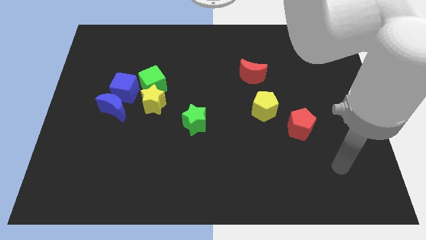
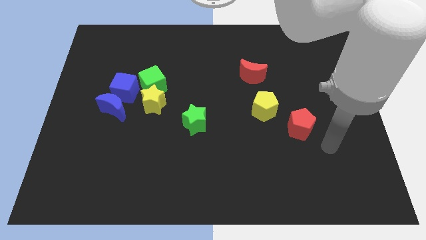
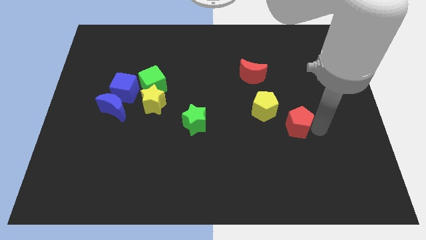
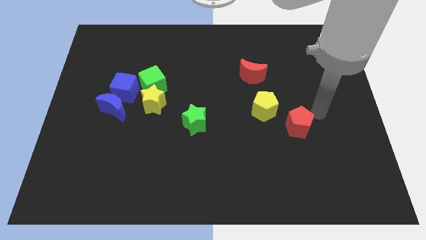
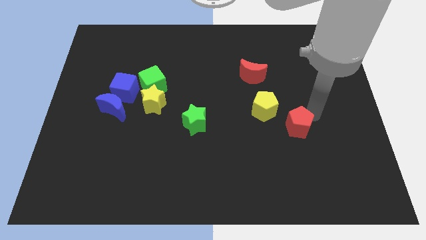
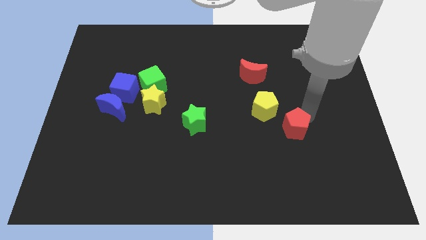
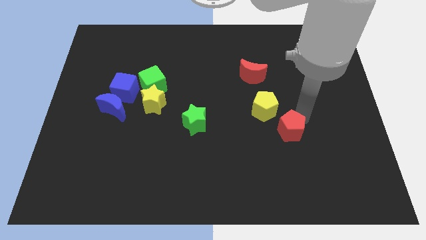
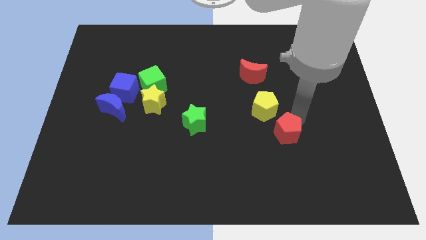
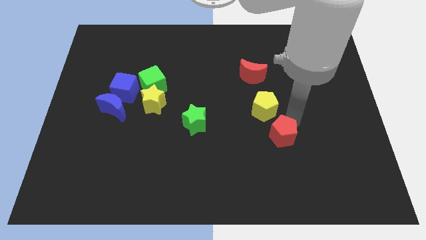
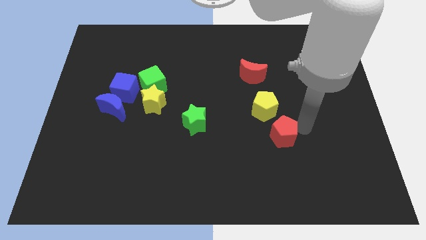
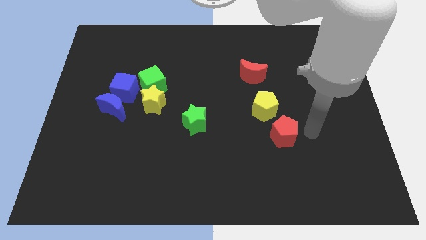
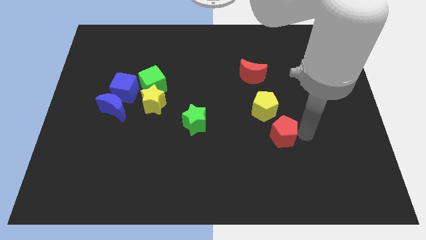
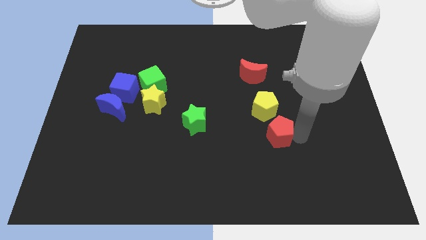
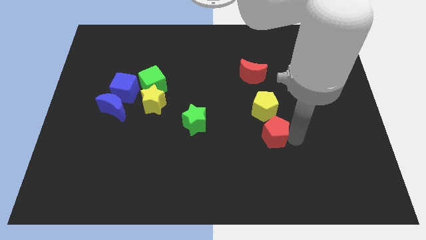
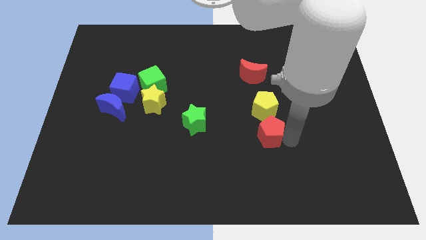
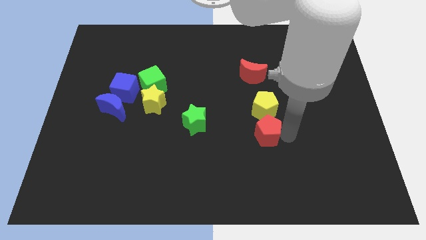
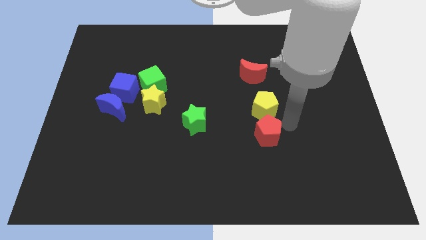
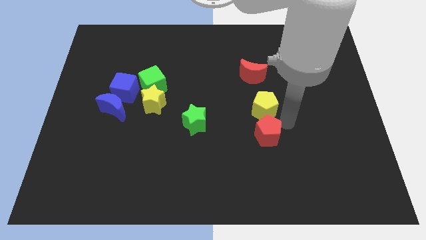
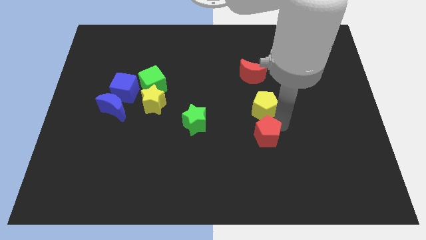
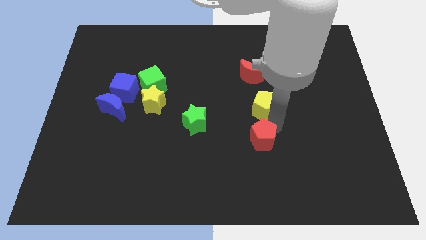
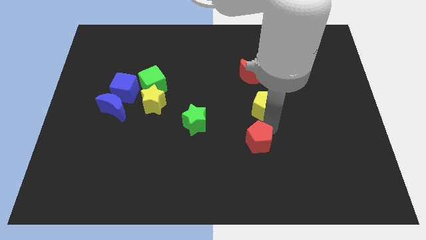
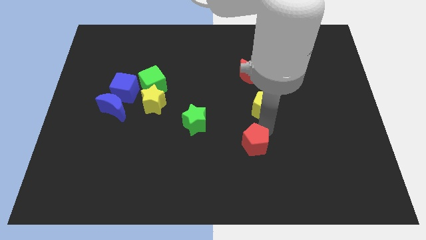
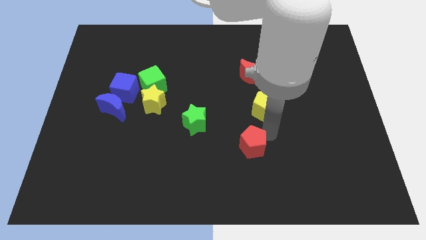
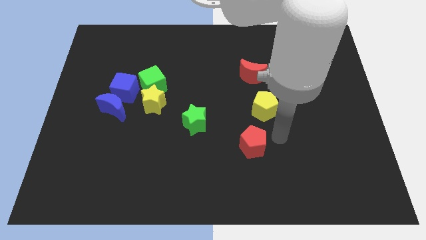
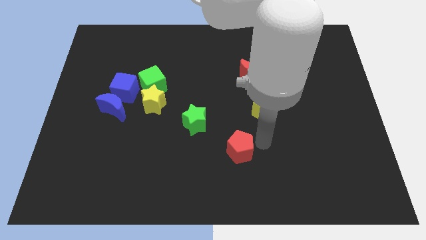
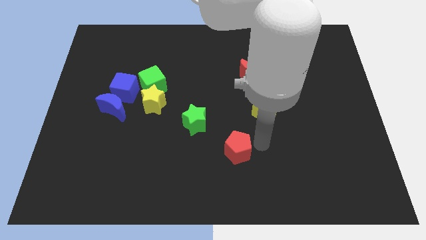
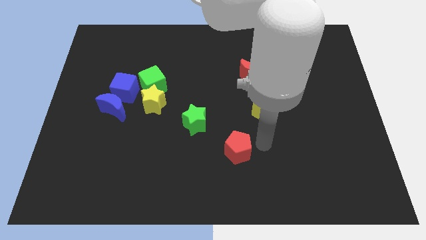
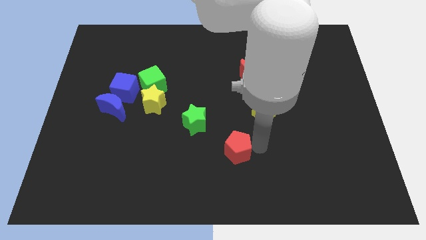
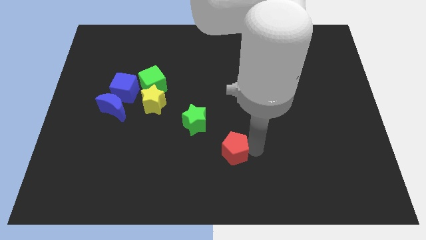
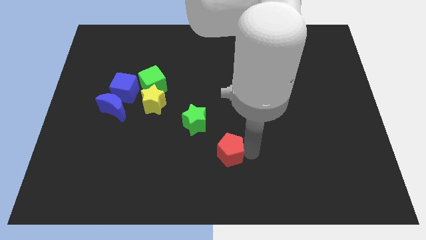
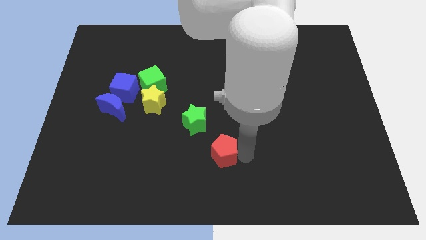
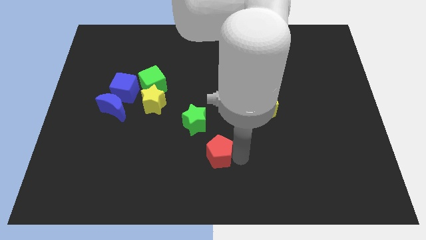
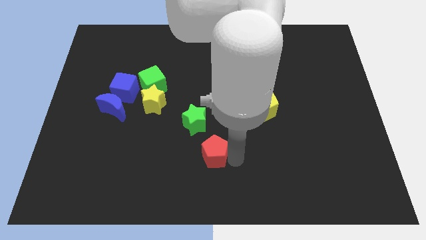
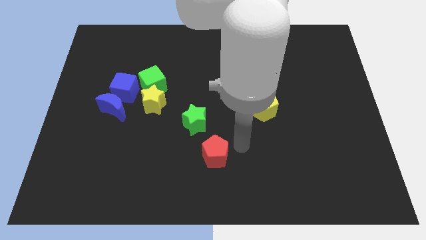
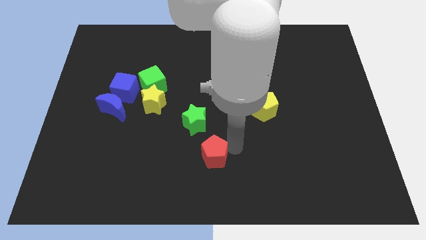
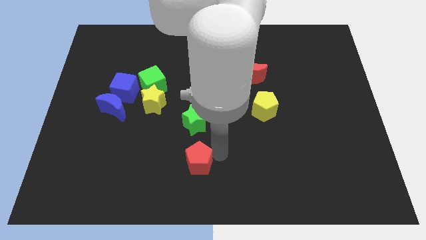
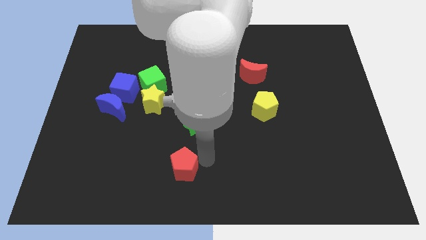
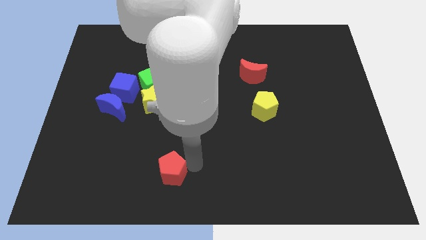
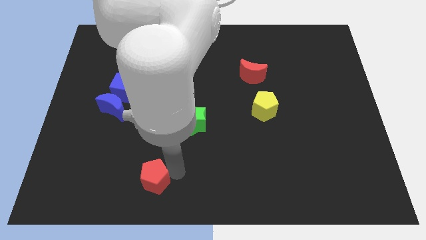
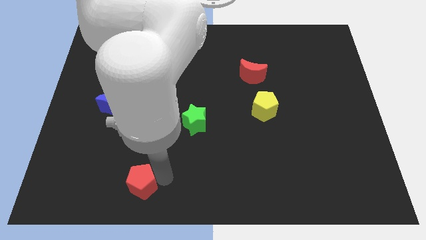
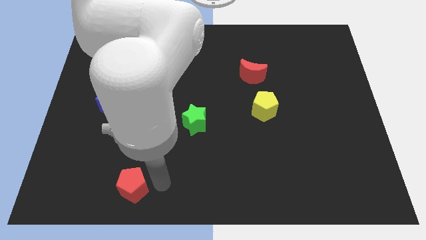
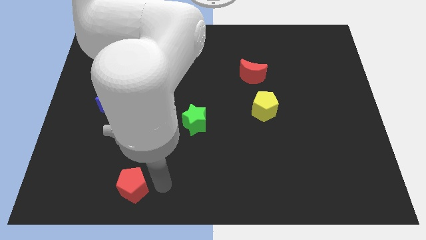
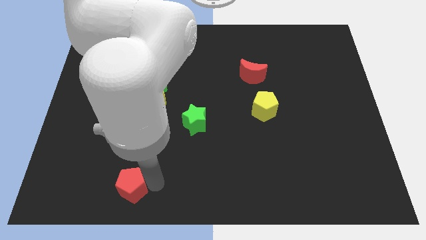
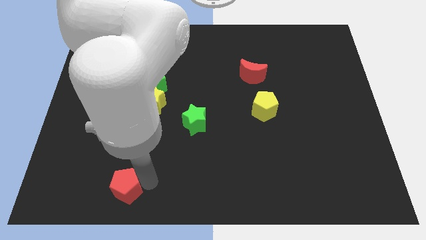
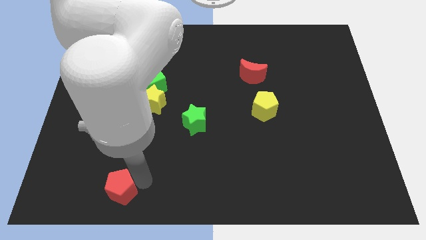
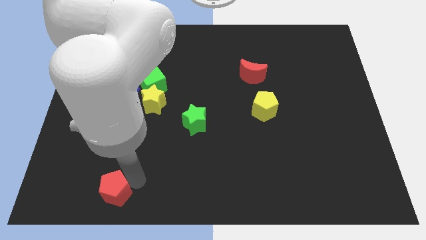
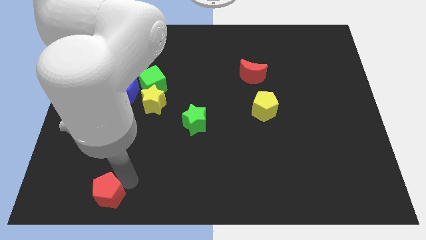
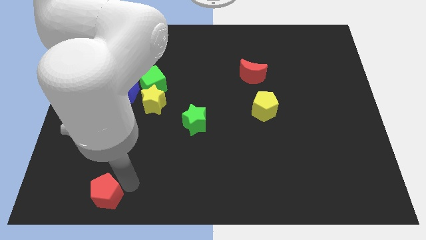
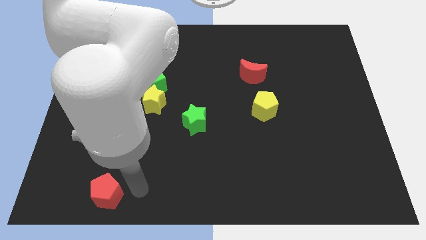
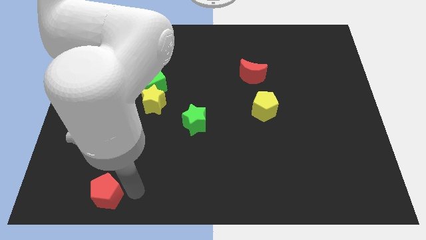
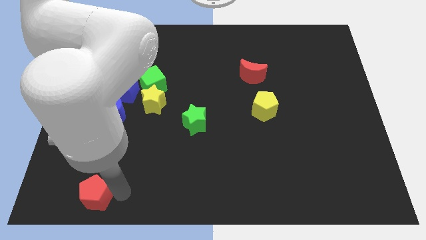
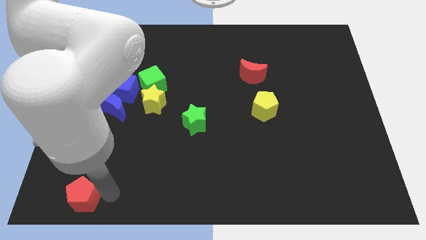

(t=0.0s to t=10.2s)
put the red pentagon to the bottom left of the board

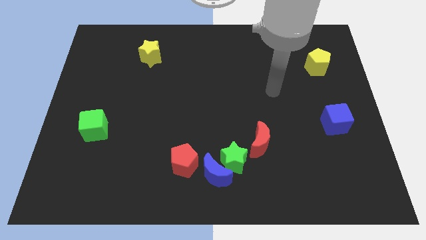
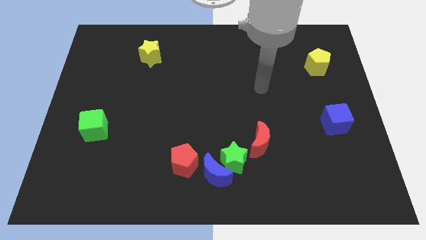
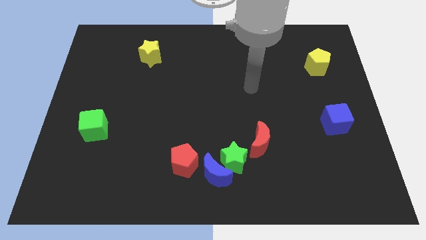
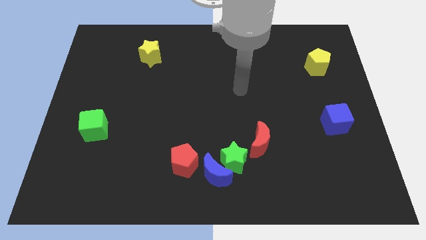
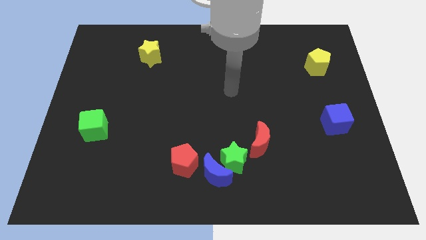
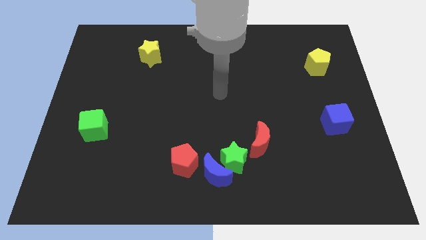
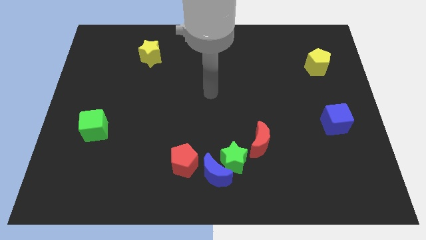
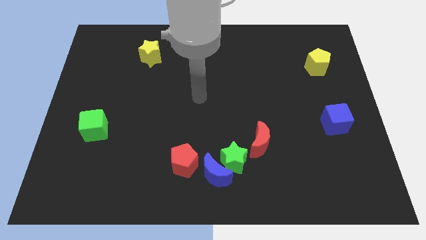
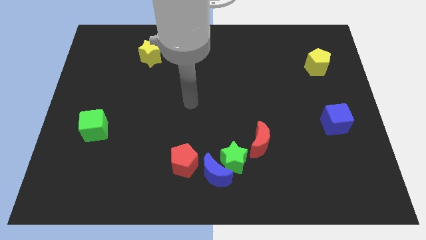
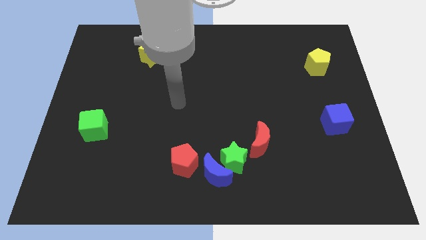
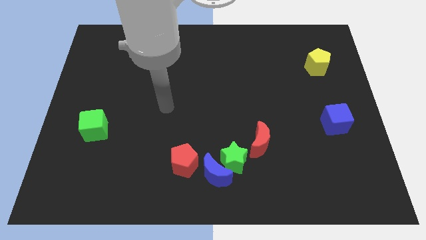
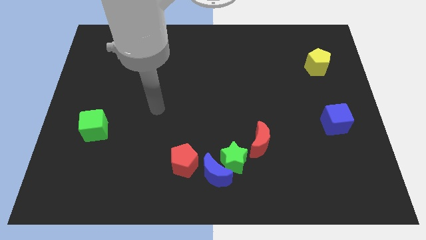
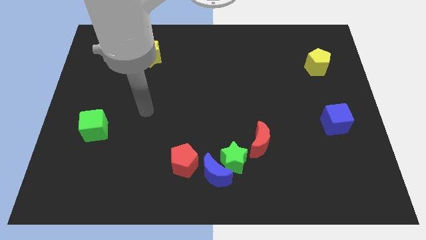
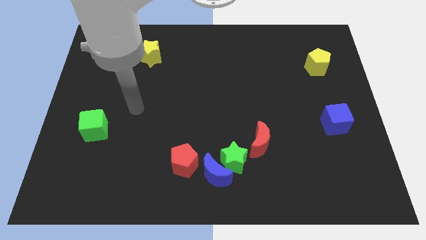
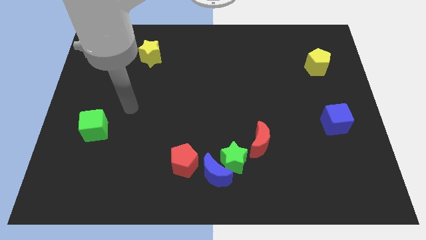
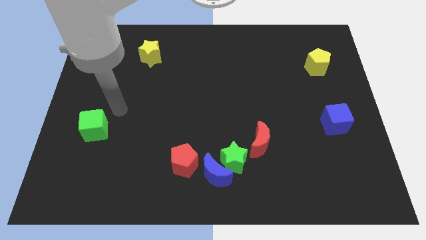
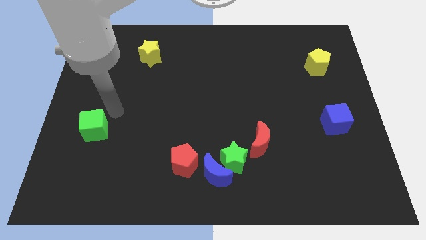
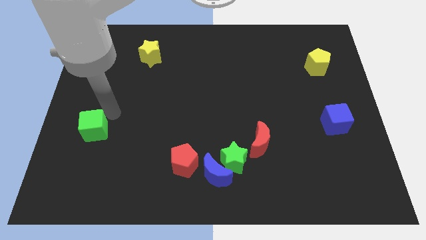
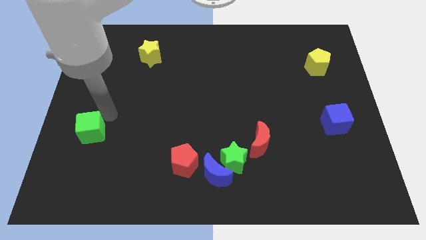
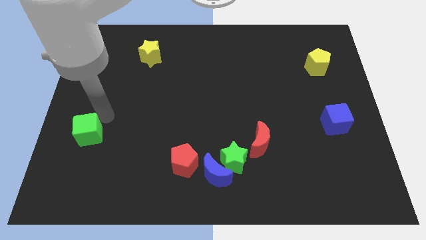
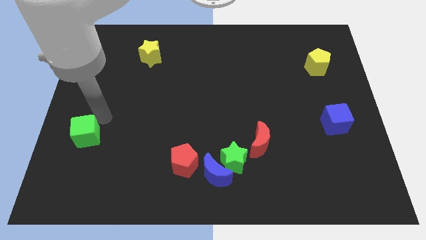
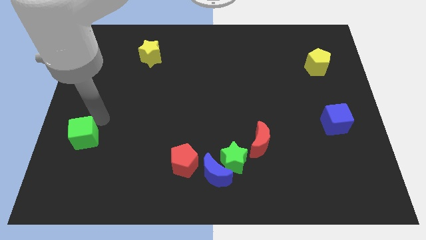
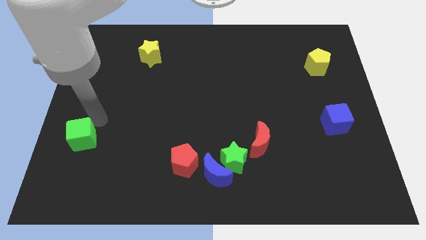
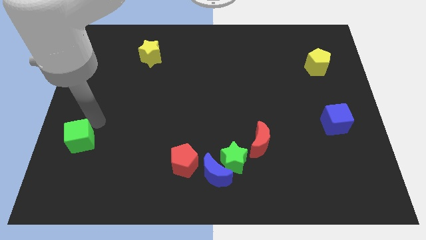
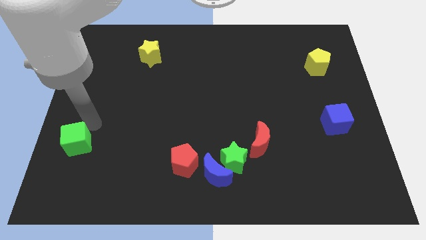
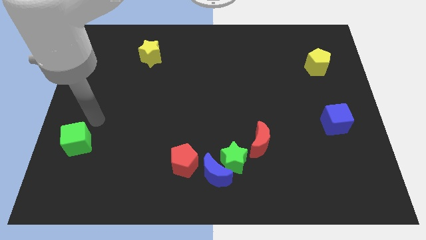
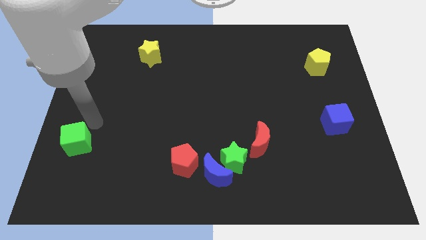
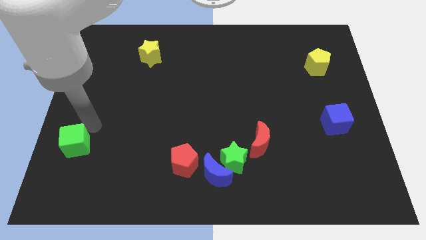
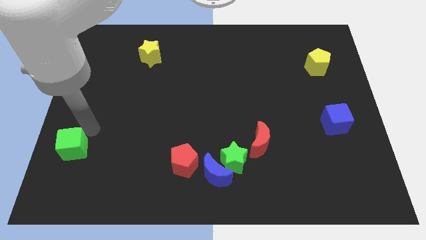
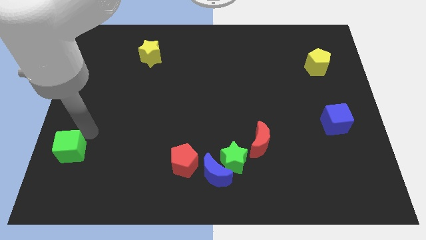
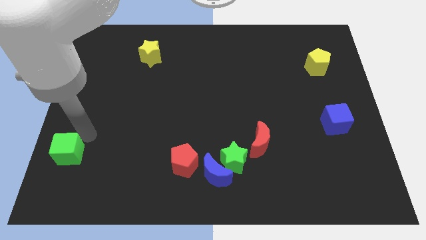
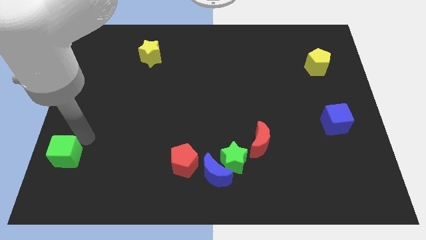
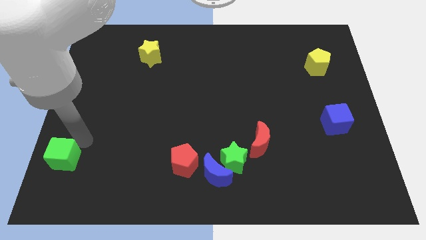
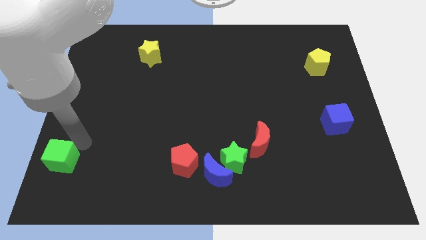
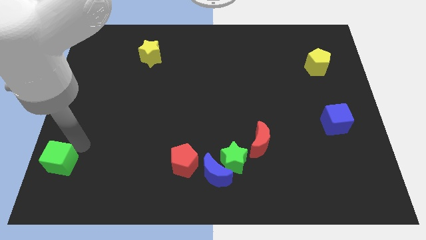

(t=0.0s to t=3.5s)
move the green cube to the bottom left corner
